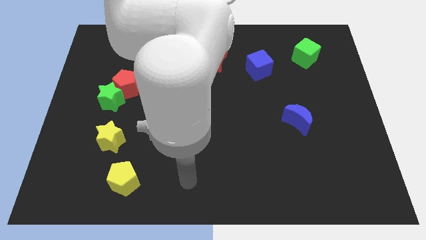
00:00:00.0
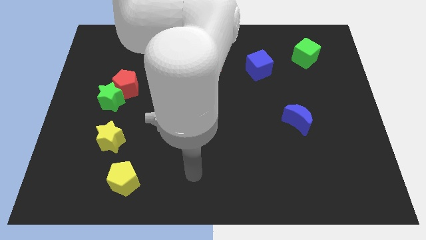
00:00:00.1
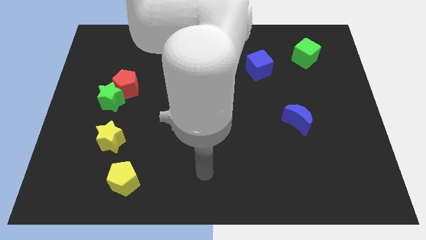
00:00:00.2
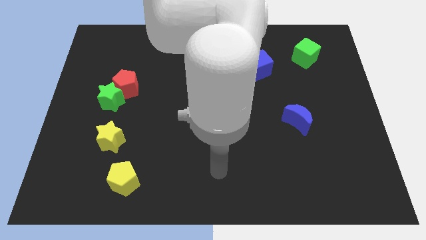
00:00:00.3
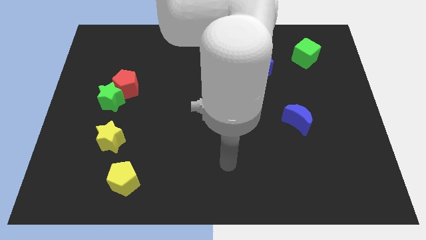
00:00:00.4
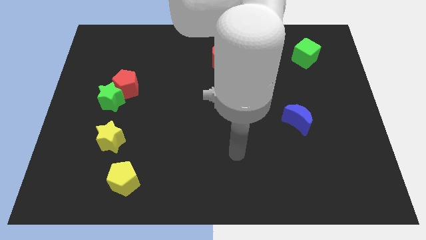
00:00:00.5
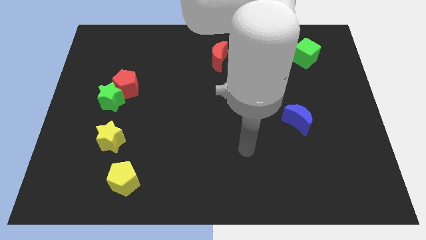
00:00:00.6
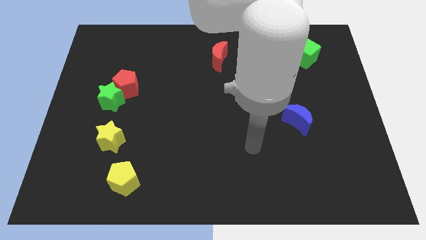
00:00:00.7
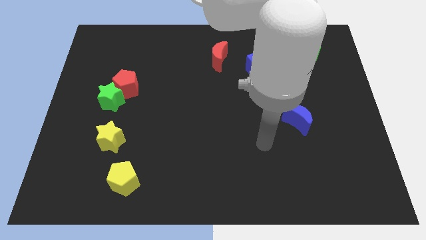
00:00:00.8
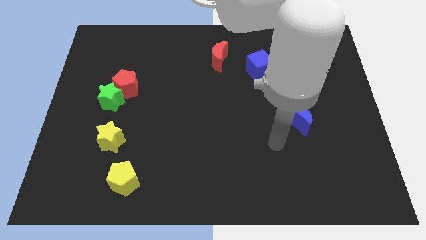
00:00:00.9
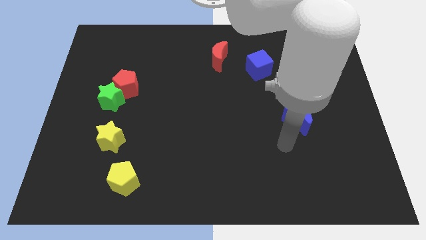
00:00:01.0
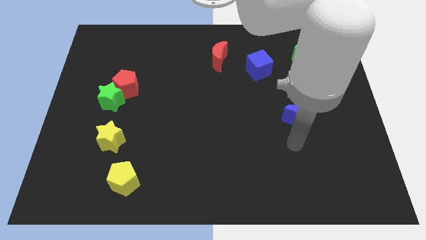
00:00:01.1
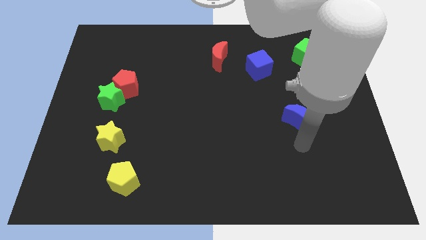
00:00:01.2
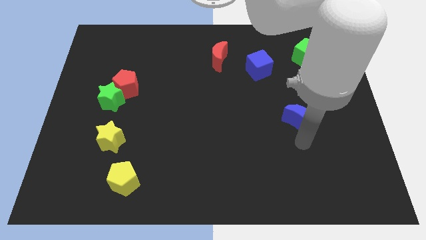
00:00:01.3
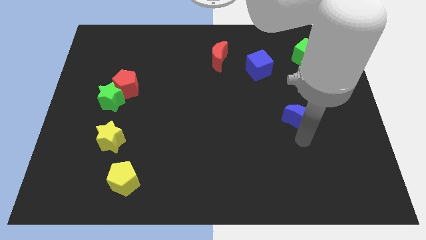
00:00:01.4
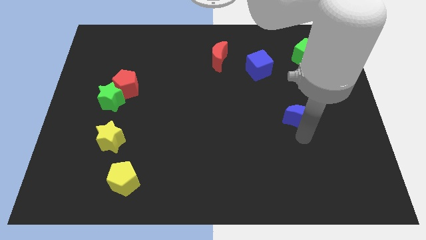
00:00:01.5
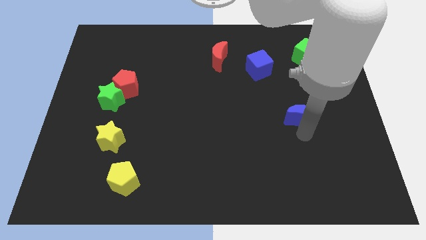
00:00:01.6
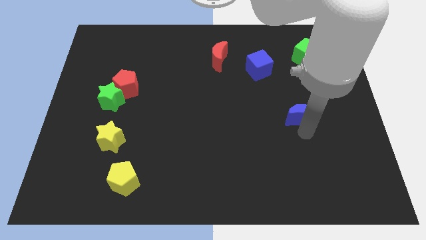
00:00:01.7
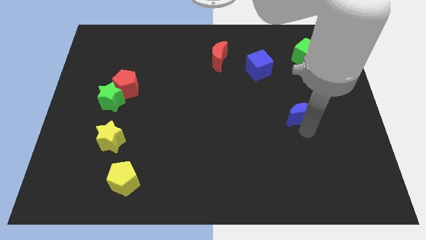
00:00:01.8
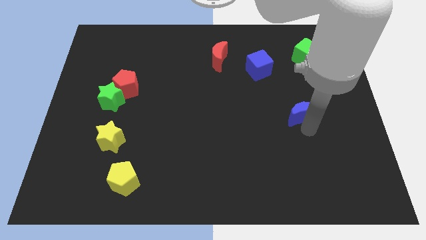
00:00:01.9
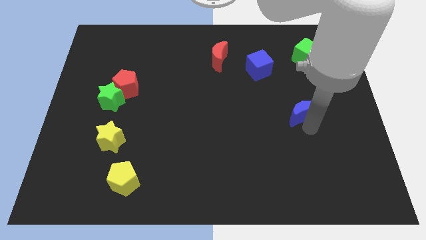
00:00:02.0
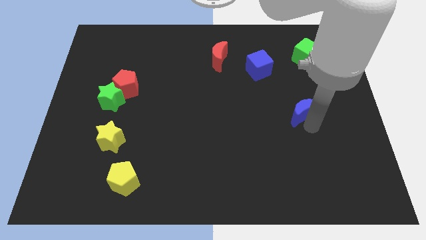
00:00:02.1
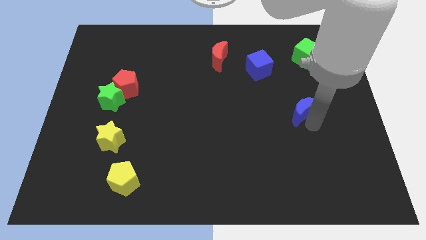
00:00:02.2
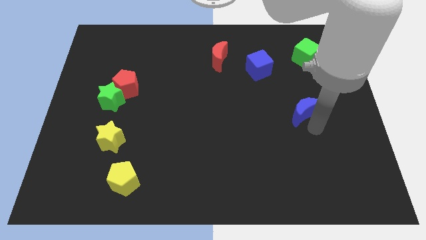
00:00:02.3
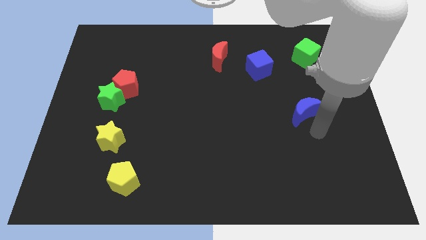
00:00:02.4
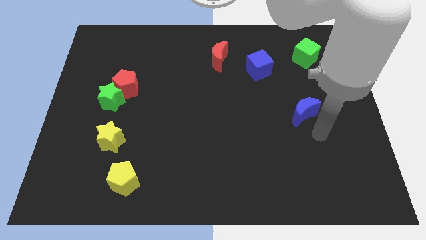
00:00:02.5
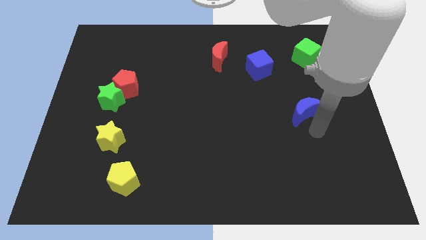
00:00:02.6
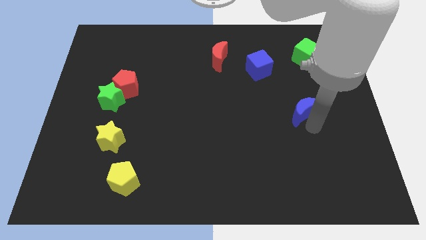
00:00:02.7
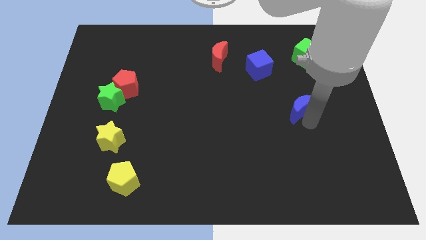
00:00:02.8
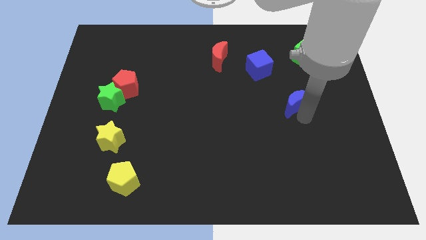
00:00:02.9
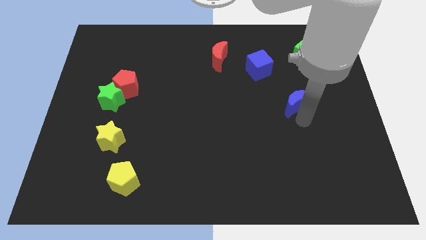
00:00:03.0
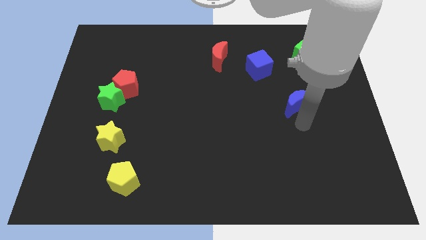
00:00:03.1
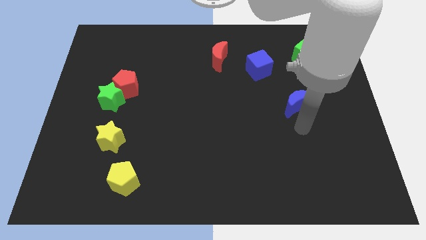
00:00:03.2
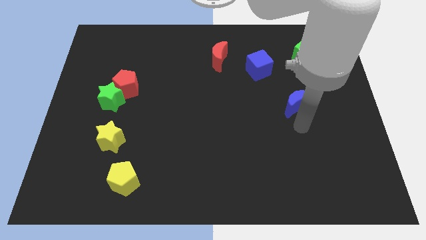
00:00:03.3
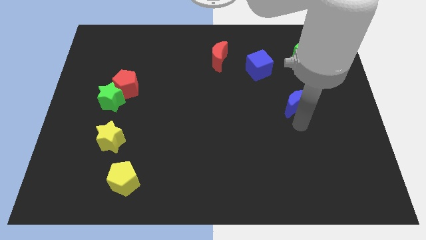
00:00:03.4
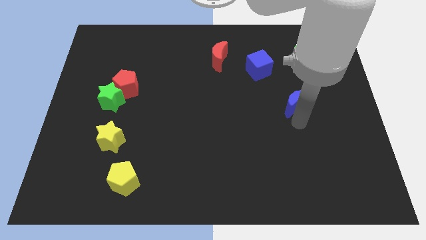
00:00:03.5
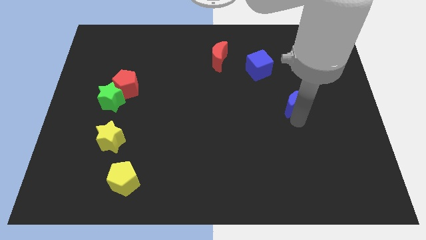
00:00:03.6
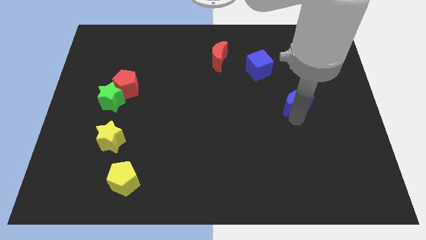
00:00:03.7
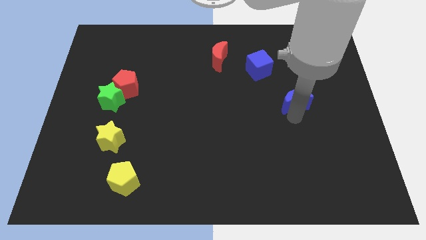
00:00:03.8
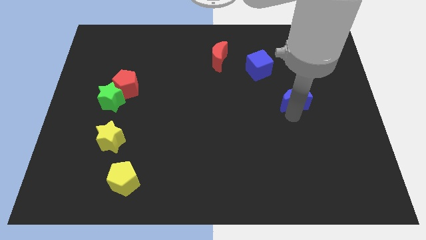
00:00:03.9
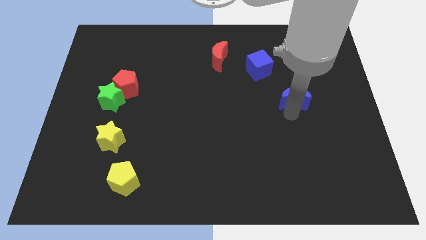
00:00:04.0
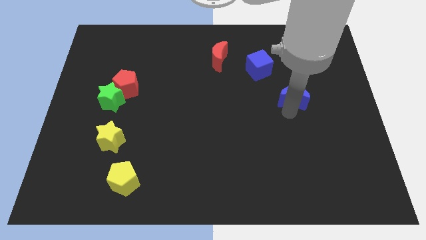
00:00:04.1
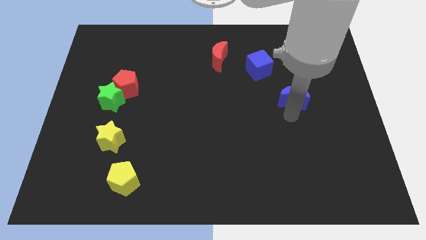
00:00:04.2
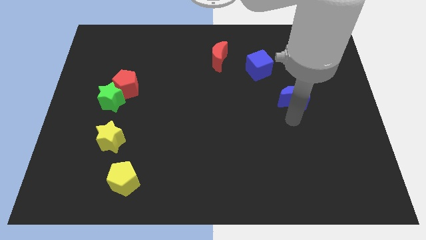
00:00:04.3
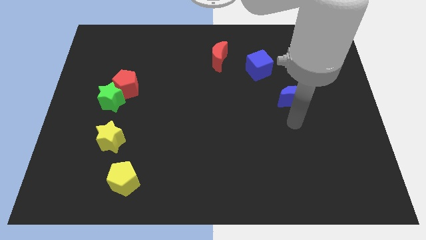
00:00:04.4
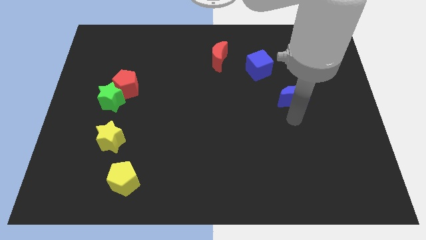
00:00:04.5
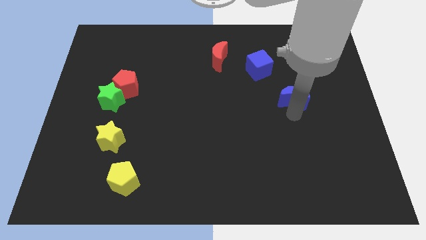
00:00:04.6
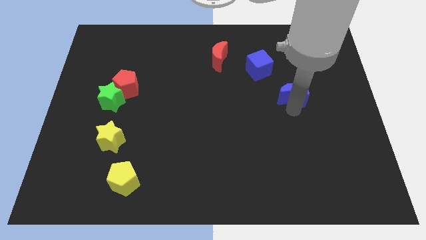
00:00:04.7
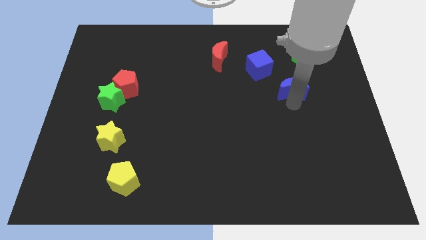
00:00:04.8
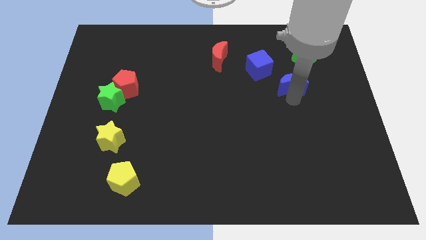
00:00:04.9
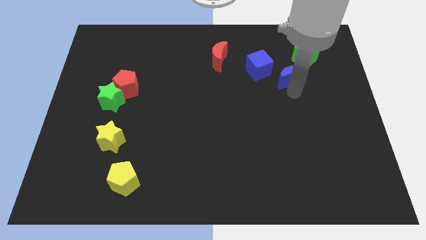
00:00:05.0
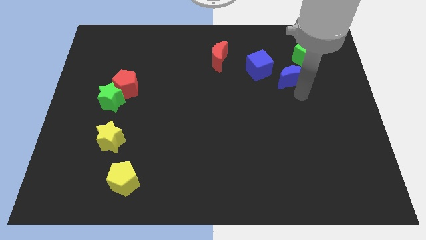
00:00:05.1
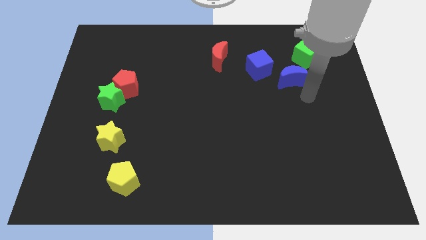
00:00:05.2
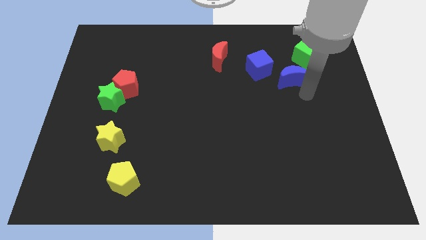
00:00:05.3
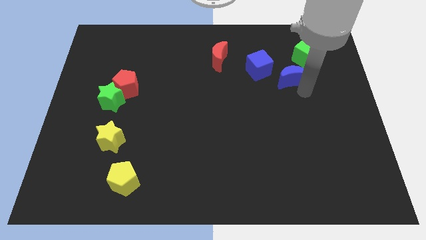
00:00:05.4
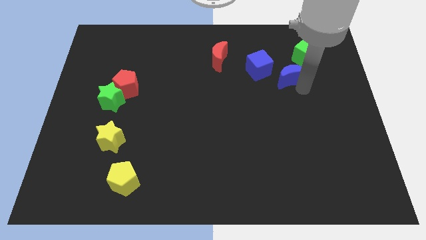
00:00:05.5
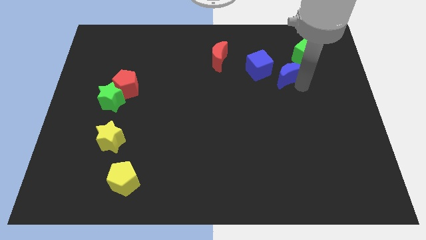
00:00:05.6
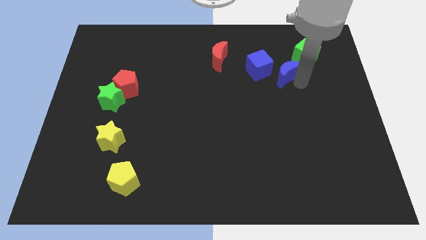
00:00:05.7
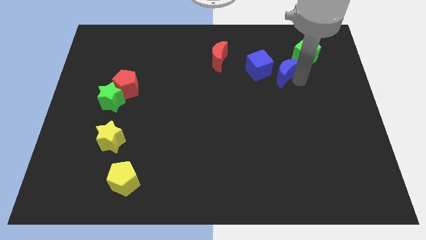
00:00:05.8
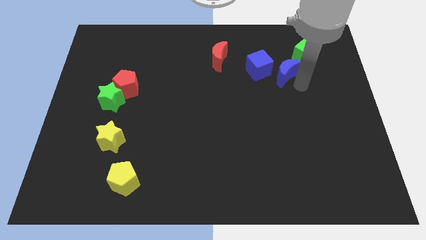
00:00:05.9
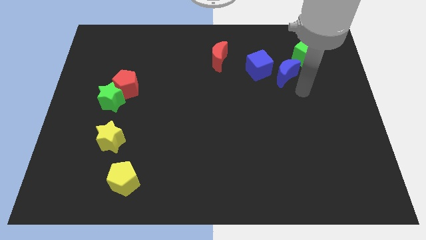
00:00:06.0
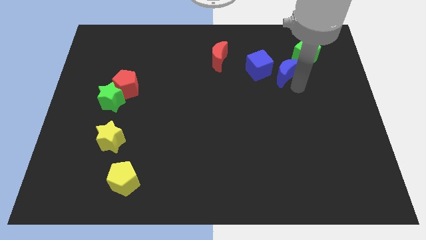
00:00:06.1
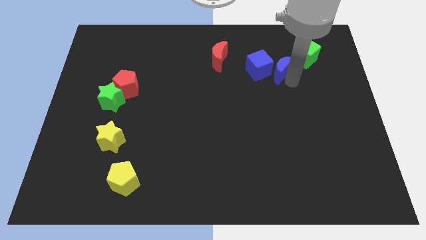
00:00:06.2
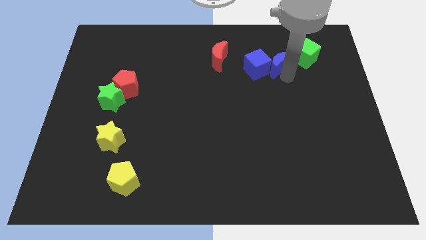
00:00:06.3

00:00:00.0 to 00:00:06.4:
move the blue moon just left of the green cube
